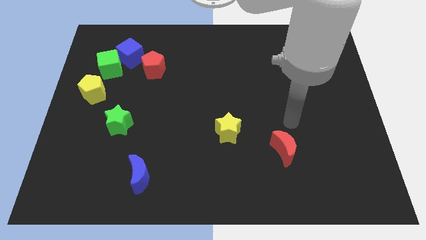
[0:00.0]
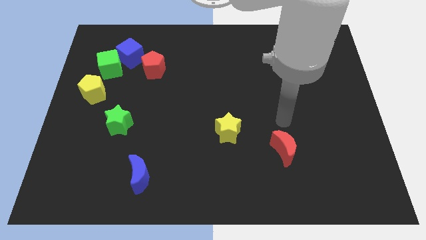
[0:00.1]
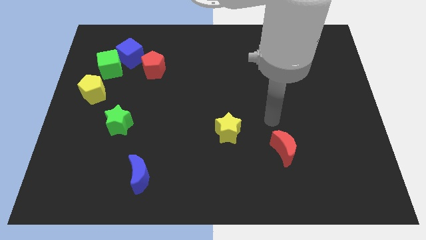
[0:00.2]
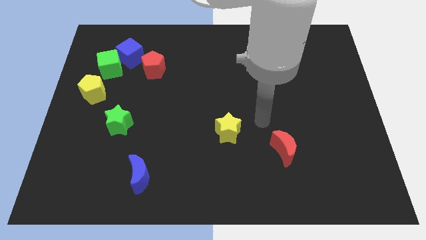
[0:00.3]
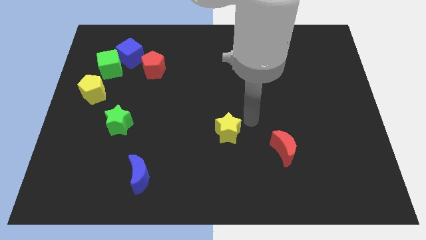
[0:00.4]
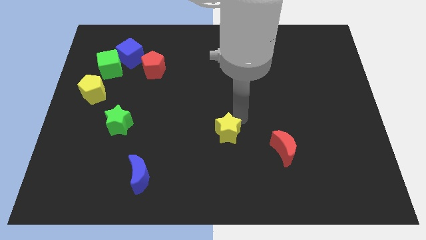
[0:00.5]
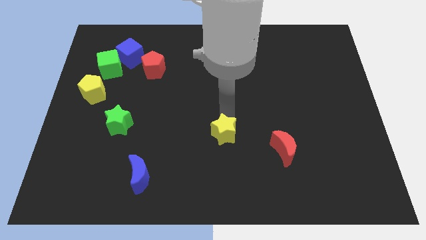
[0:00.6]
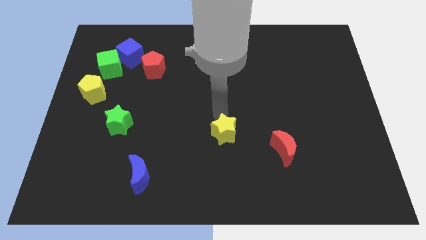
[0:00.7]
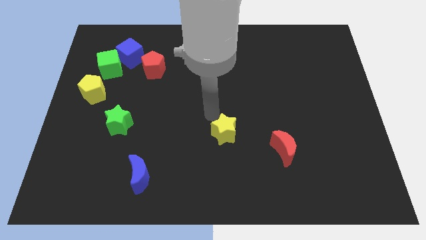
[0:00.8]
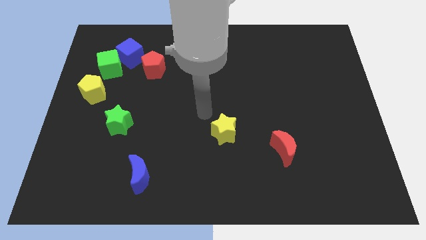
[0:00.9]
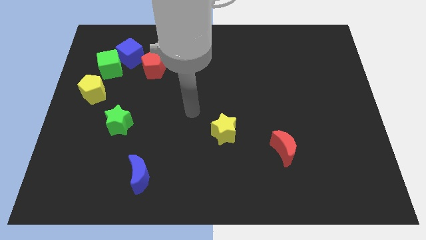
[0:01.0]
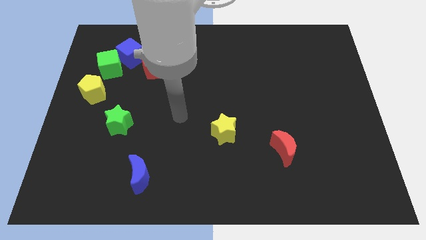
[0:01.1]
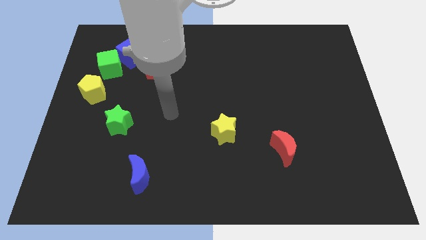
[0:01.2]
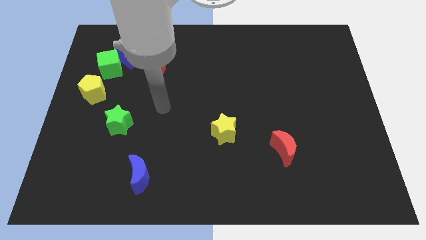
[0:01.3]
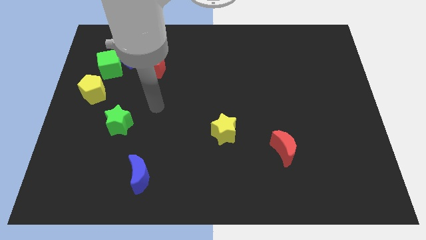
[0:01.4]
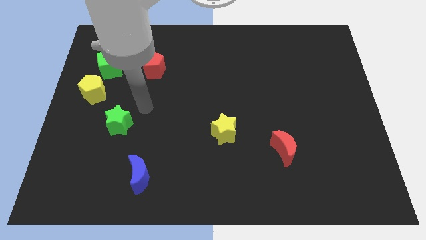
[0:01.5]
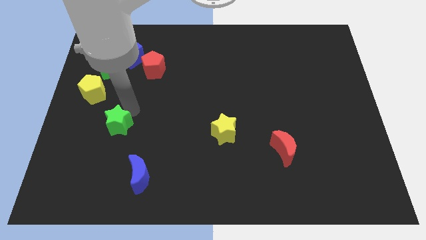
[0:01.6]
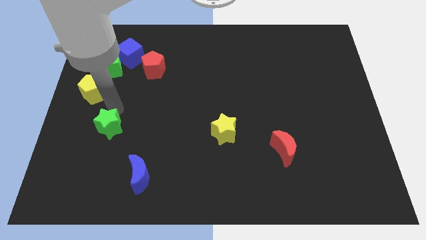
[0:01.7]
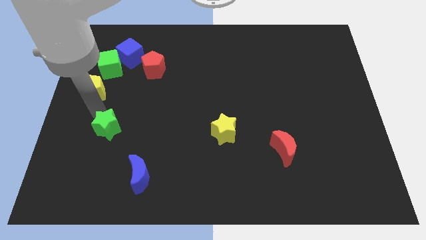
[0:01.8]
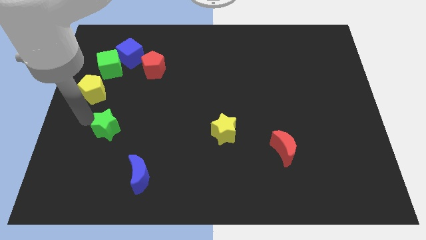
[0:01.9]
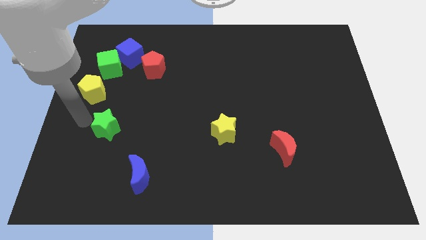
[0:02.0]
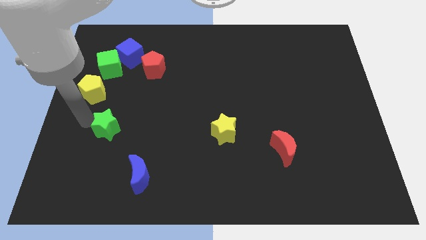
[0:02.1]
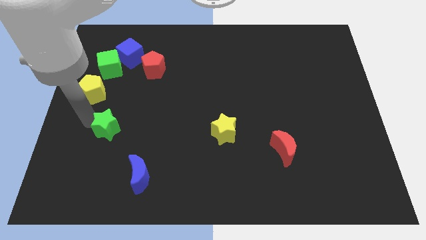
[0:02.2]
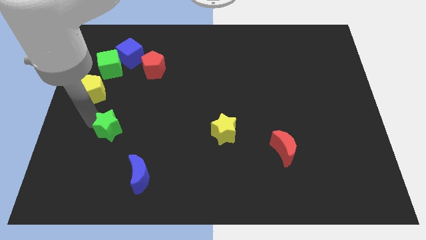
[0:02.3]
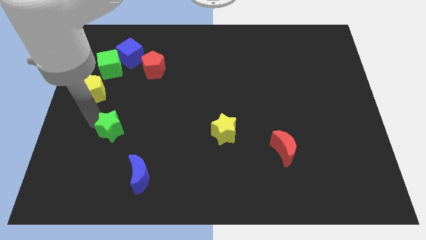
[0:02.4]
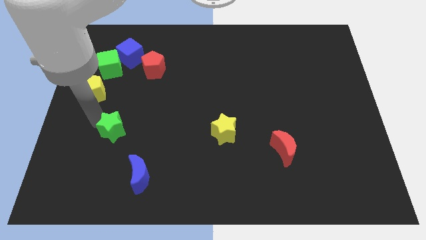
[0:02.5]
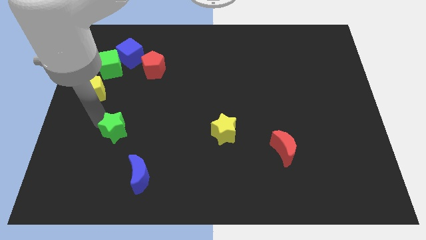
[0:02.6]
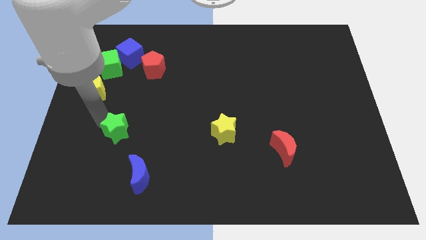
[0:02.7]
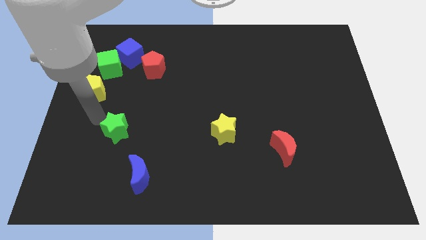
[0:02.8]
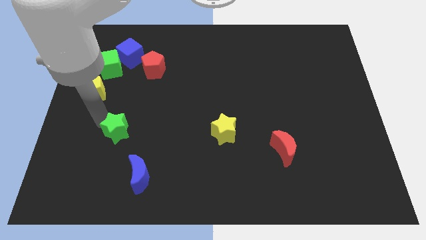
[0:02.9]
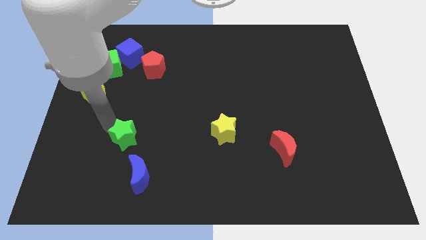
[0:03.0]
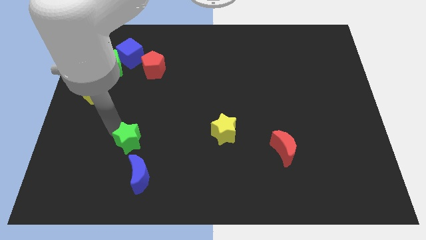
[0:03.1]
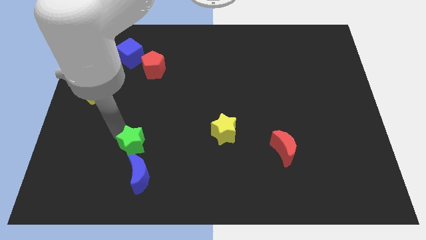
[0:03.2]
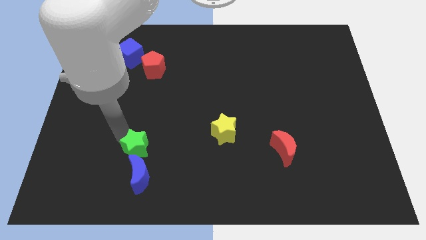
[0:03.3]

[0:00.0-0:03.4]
slightly move the green star downwards and then to the right

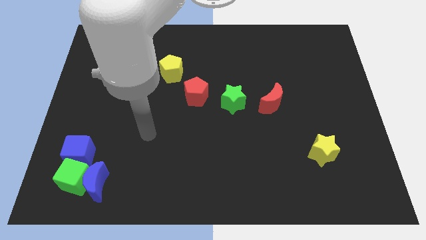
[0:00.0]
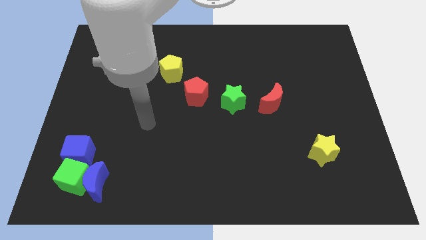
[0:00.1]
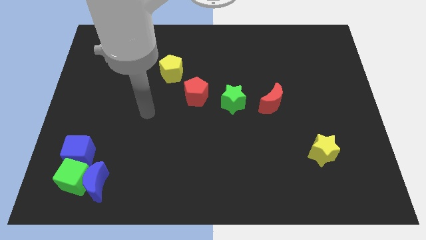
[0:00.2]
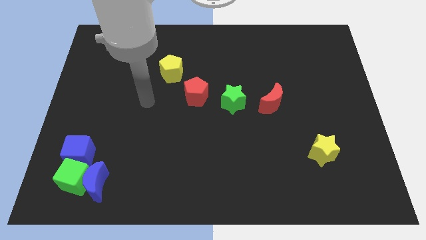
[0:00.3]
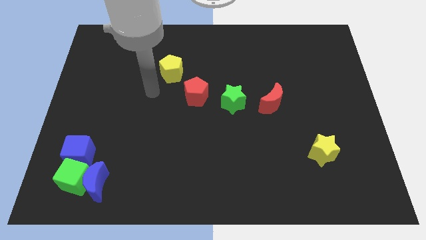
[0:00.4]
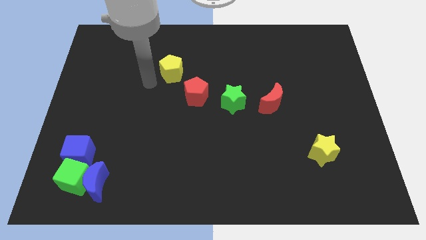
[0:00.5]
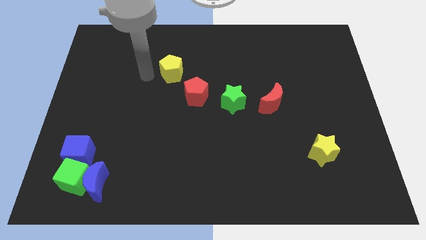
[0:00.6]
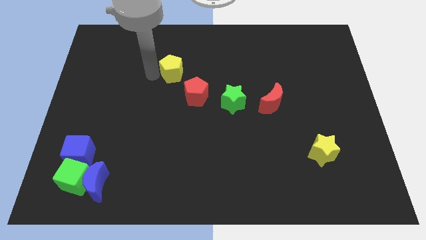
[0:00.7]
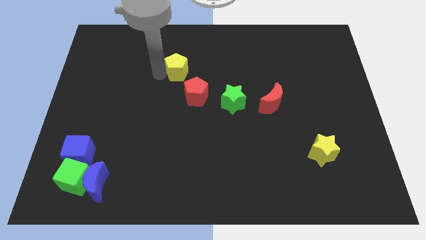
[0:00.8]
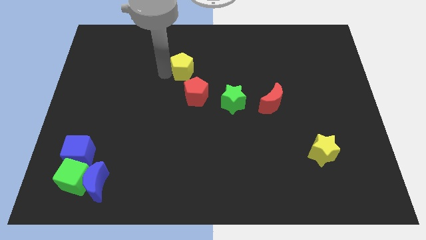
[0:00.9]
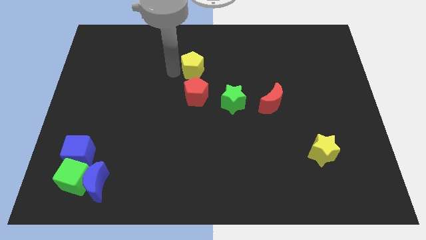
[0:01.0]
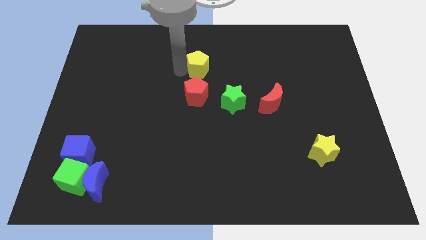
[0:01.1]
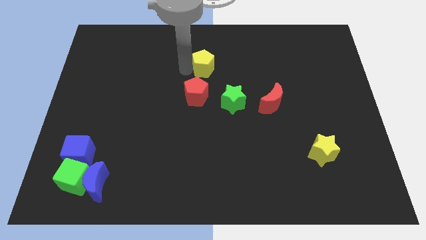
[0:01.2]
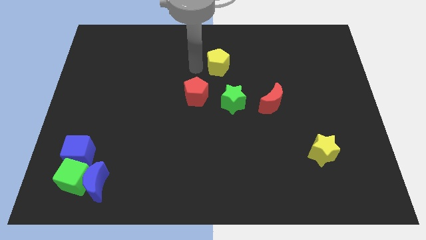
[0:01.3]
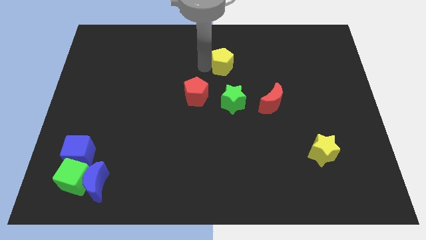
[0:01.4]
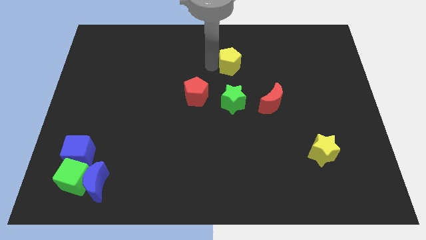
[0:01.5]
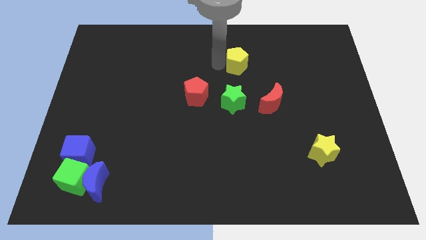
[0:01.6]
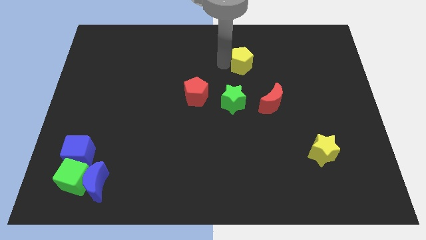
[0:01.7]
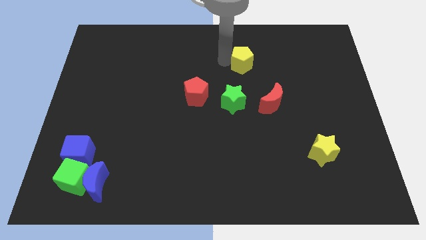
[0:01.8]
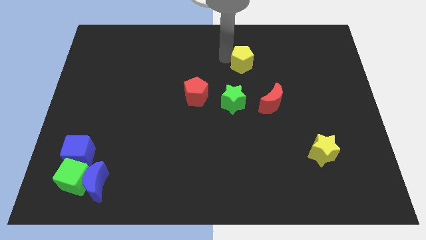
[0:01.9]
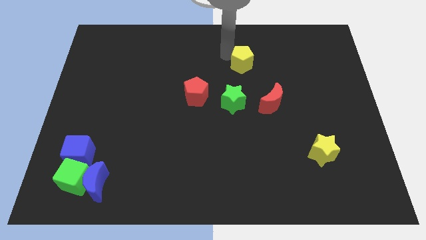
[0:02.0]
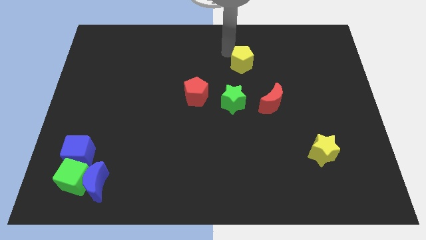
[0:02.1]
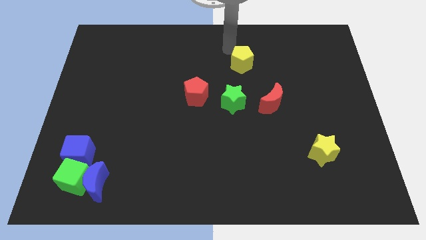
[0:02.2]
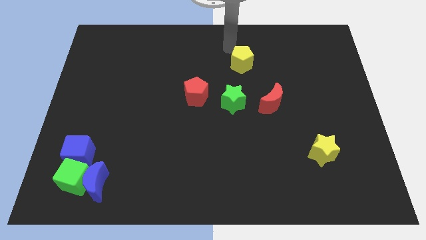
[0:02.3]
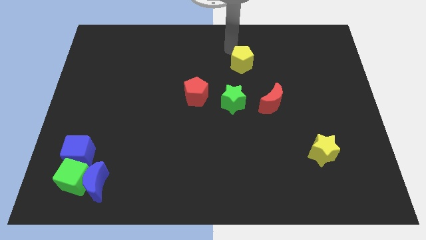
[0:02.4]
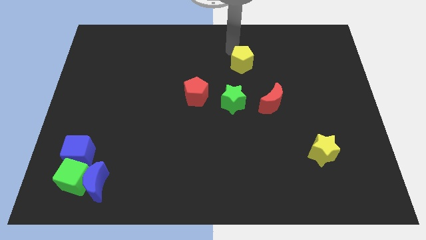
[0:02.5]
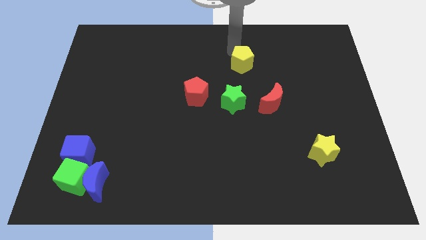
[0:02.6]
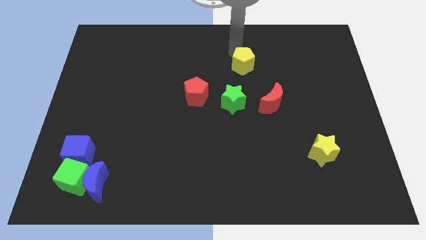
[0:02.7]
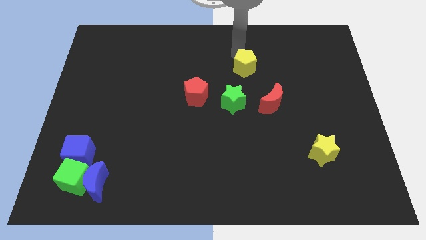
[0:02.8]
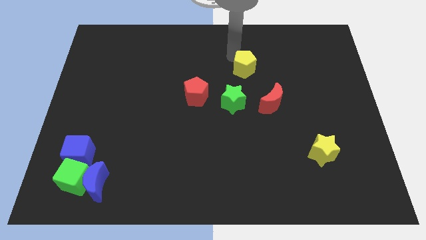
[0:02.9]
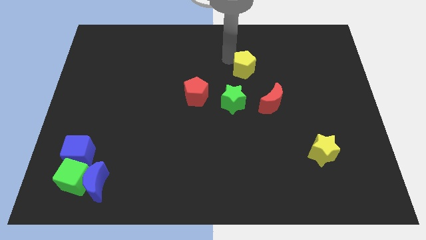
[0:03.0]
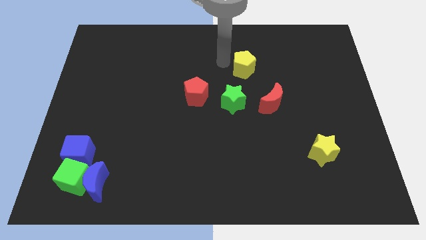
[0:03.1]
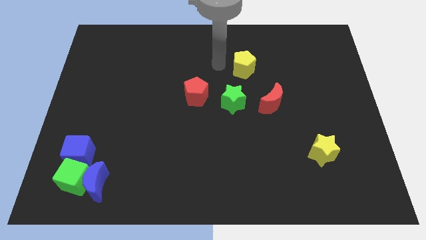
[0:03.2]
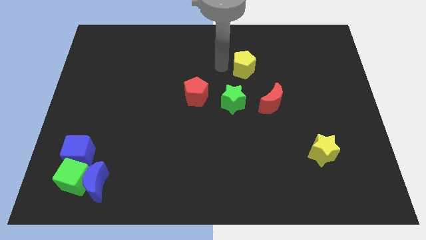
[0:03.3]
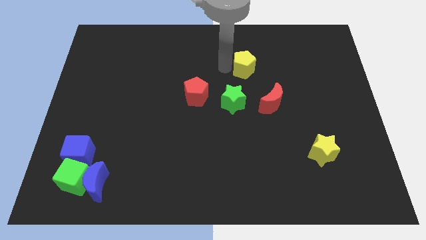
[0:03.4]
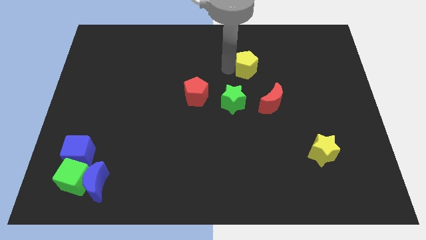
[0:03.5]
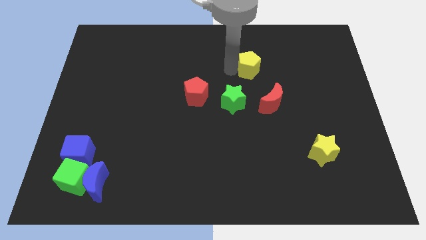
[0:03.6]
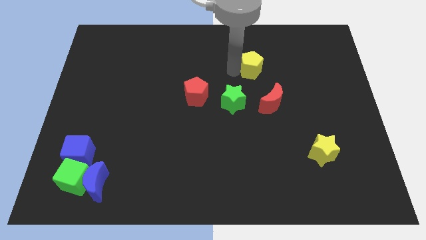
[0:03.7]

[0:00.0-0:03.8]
slide the yellow pentagon right

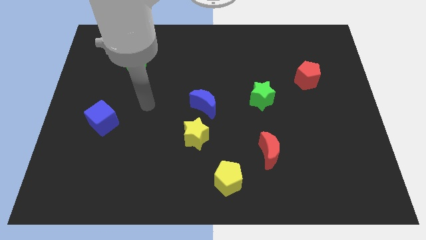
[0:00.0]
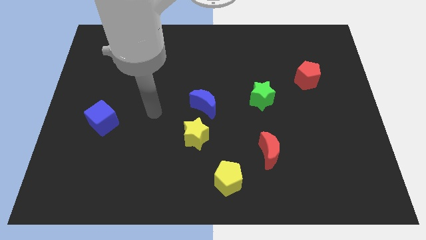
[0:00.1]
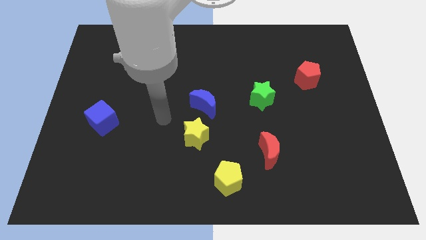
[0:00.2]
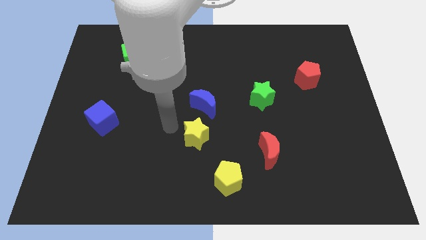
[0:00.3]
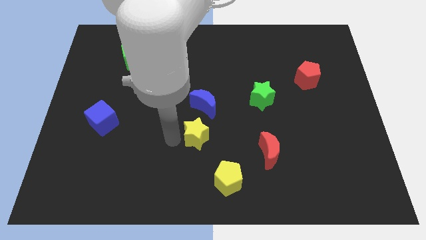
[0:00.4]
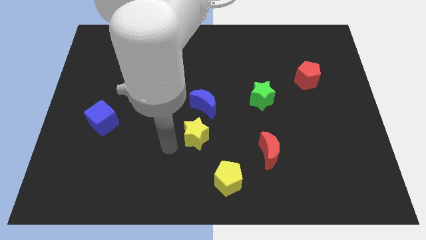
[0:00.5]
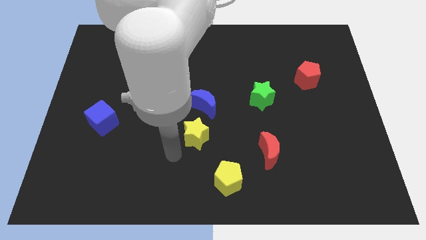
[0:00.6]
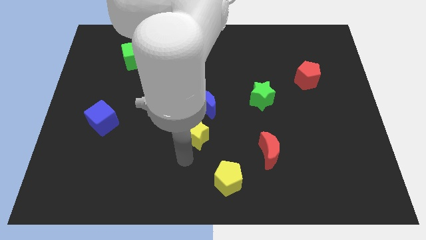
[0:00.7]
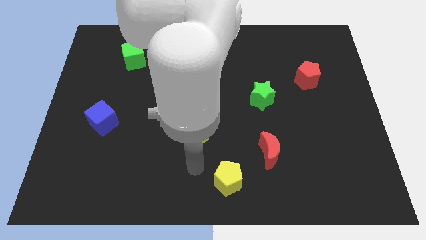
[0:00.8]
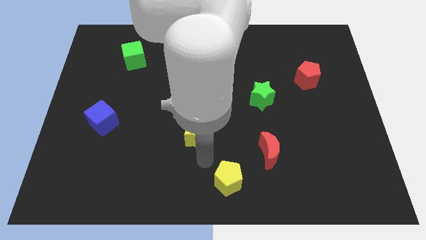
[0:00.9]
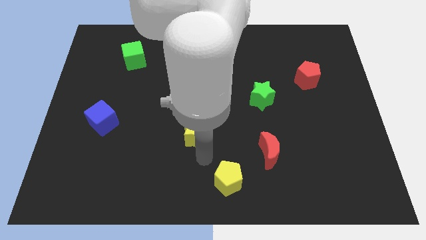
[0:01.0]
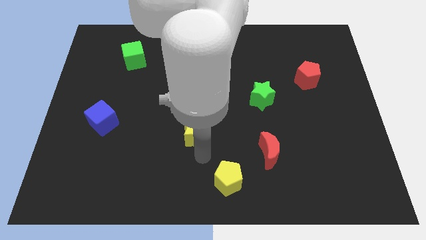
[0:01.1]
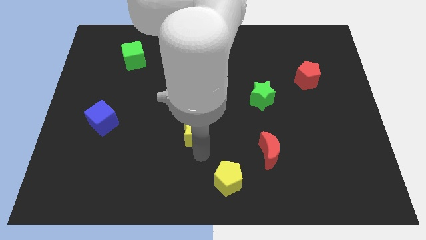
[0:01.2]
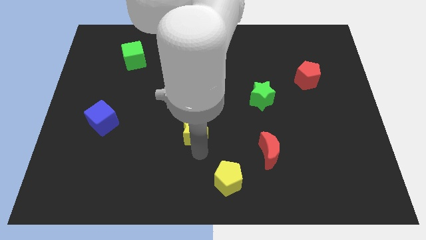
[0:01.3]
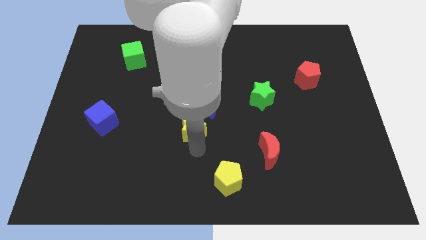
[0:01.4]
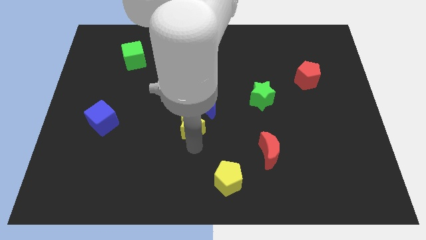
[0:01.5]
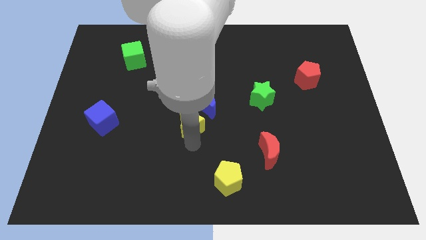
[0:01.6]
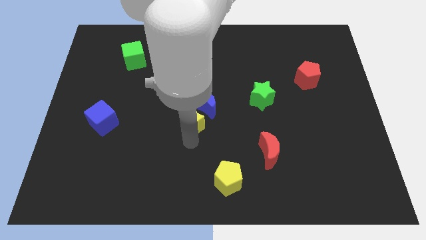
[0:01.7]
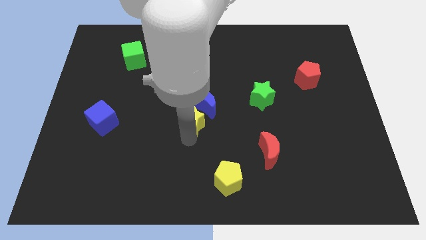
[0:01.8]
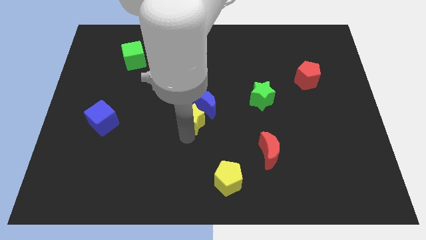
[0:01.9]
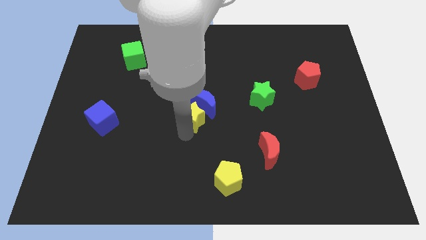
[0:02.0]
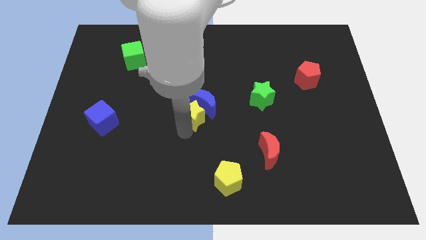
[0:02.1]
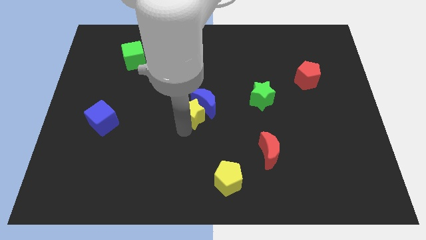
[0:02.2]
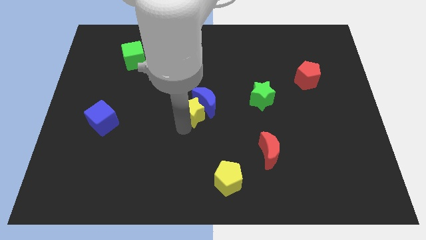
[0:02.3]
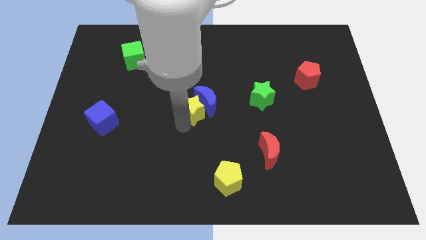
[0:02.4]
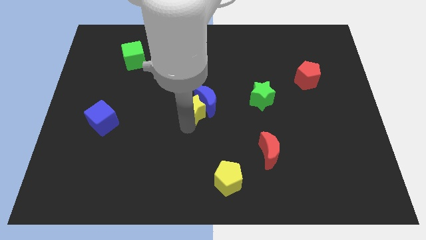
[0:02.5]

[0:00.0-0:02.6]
slightly move the yellow star up
